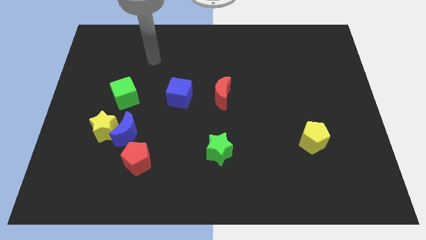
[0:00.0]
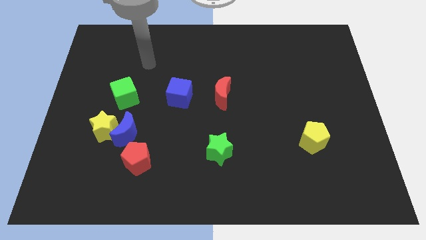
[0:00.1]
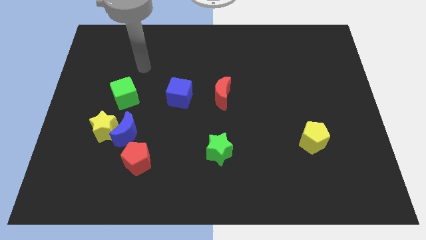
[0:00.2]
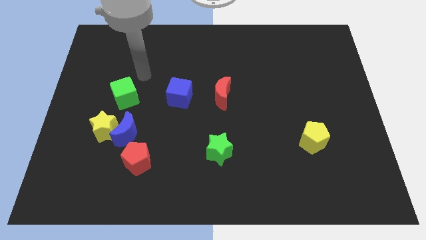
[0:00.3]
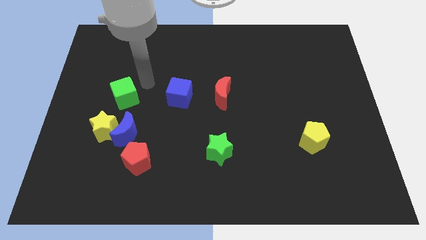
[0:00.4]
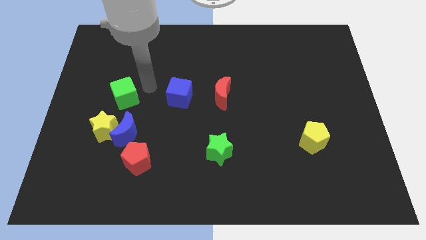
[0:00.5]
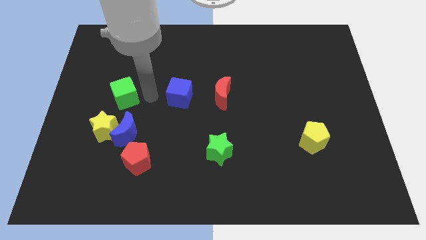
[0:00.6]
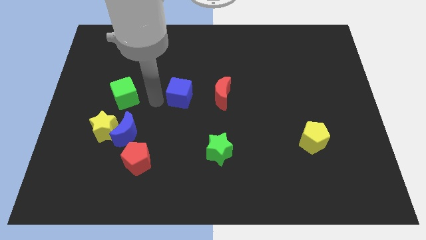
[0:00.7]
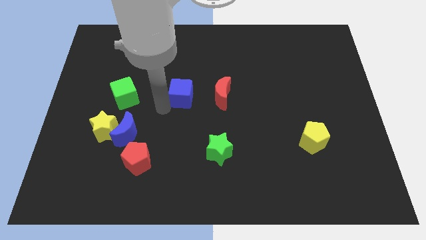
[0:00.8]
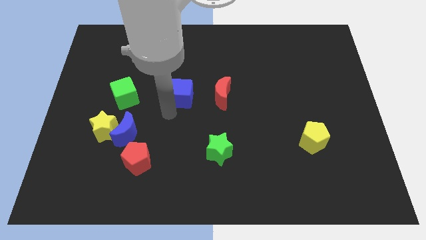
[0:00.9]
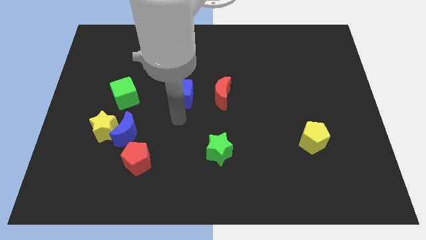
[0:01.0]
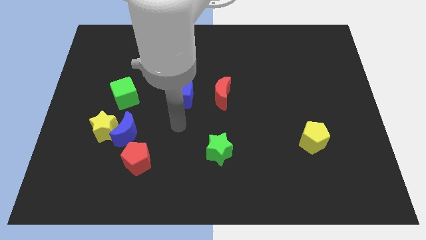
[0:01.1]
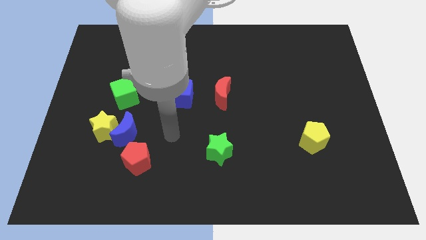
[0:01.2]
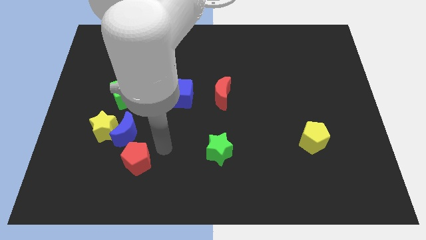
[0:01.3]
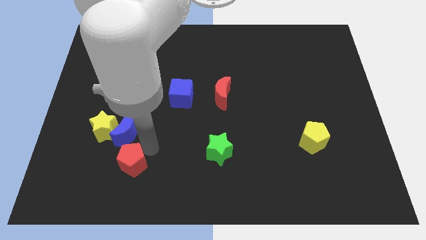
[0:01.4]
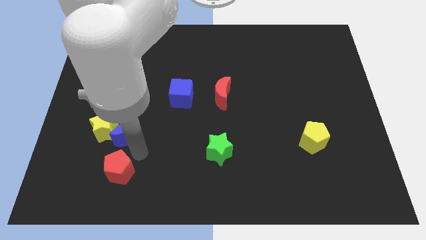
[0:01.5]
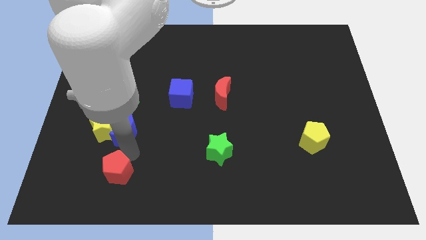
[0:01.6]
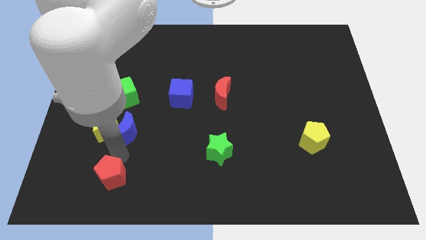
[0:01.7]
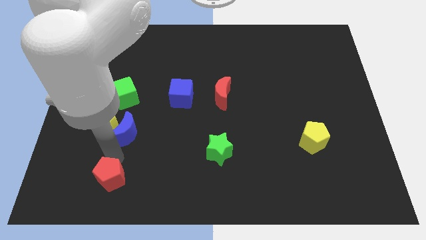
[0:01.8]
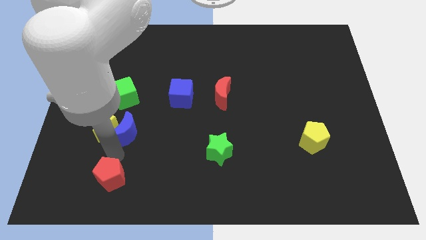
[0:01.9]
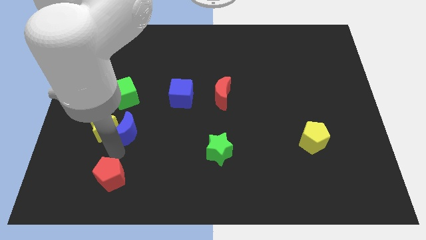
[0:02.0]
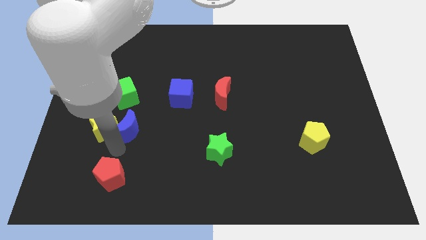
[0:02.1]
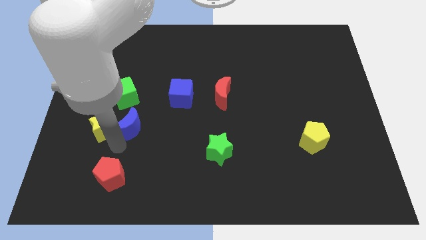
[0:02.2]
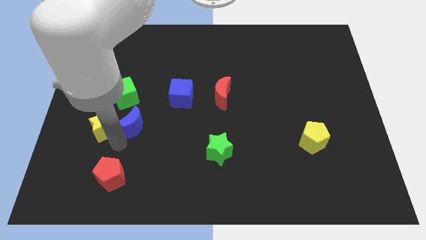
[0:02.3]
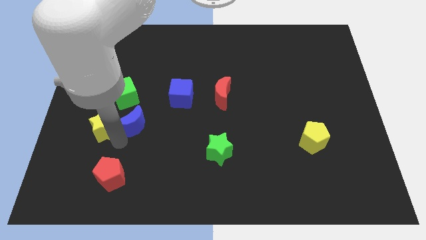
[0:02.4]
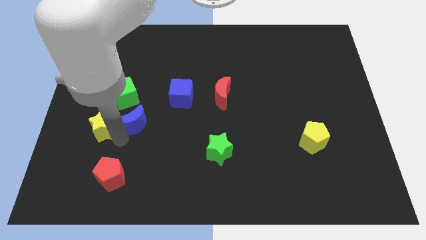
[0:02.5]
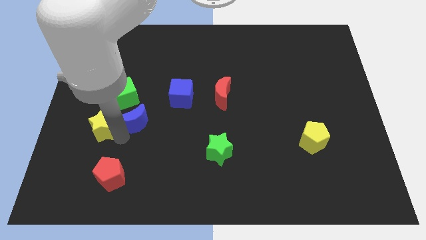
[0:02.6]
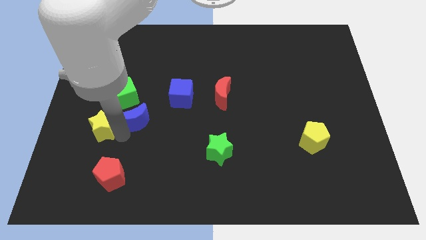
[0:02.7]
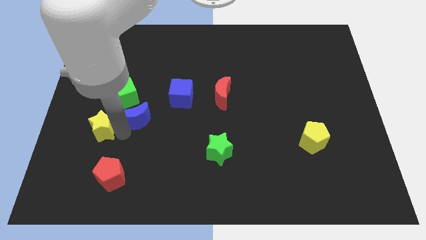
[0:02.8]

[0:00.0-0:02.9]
separate the blue moon from the yellow star and red pentagon

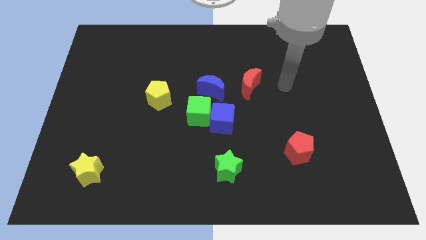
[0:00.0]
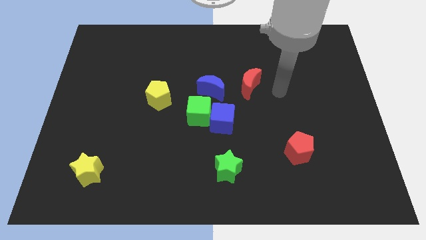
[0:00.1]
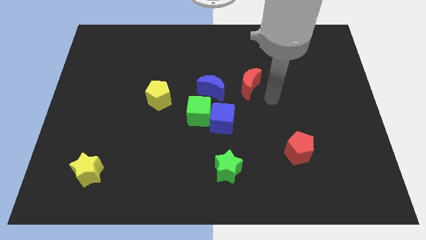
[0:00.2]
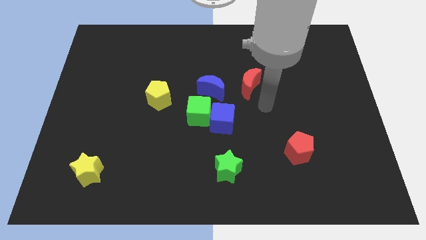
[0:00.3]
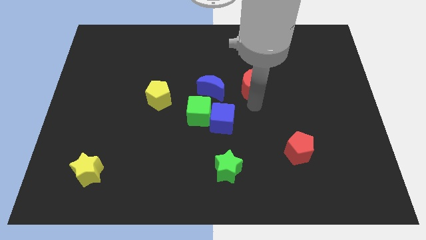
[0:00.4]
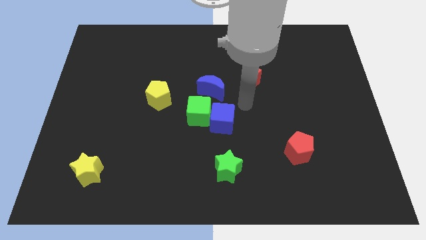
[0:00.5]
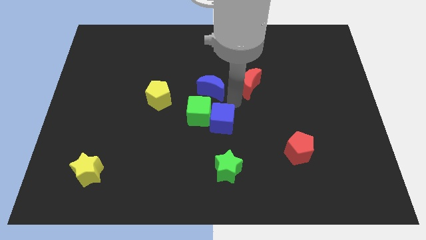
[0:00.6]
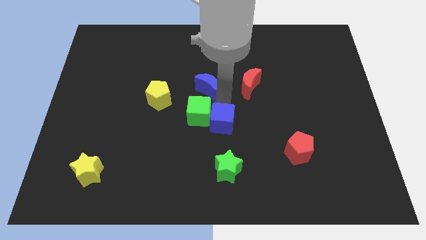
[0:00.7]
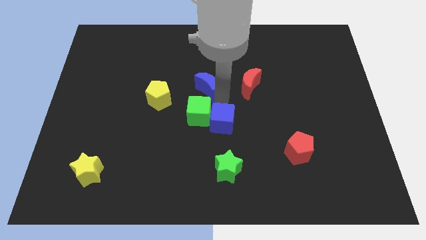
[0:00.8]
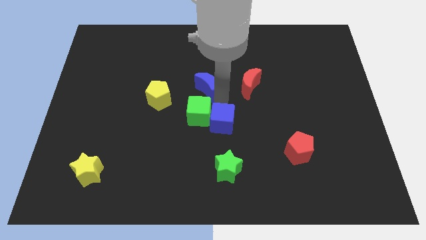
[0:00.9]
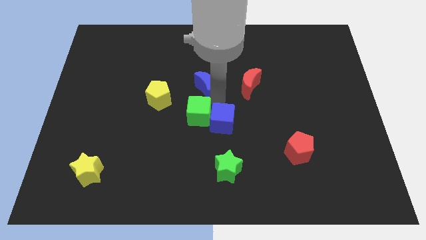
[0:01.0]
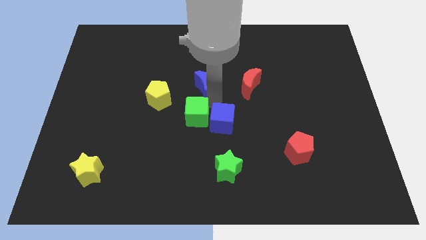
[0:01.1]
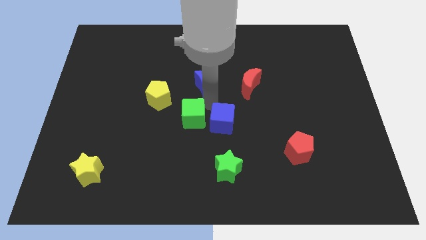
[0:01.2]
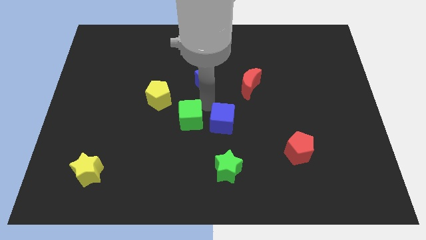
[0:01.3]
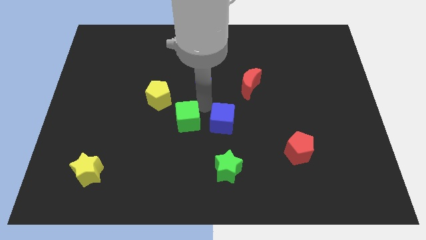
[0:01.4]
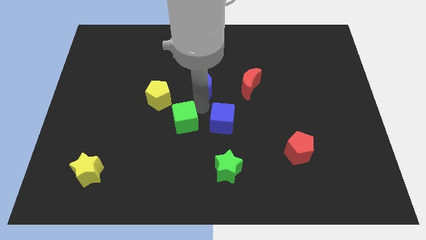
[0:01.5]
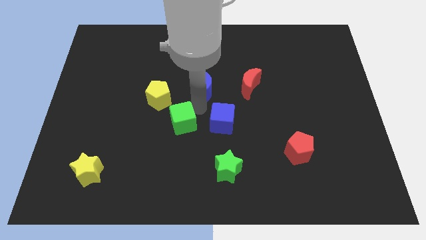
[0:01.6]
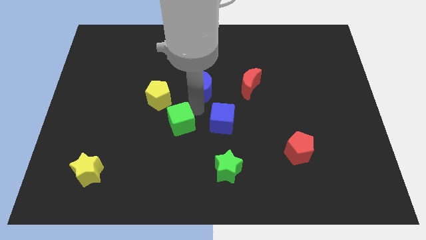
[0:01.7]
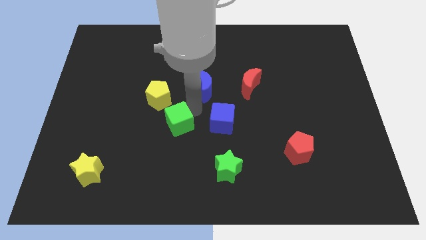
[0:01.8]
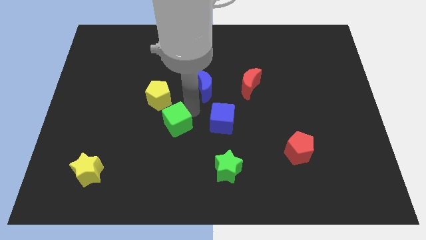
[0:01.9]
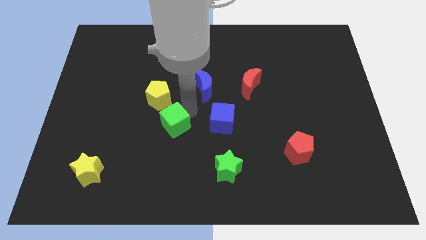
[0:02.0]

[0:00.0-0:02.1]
pull the green cube apart from the blue cube and blue moon

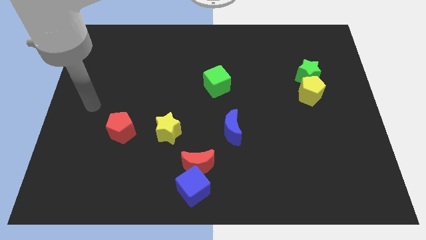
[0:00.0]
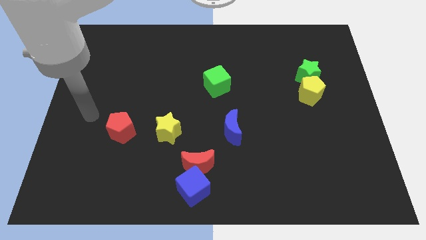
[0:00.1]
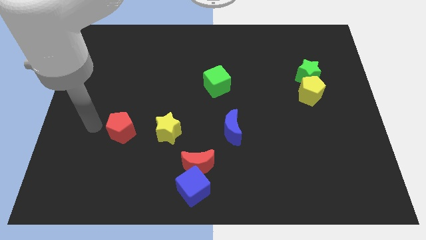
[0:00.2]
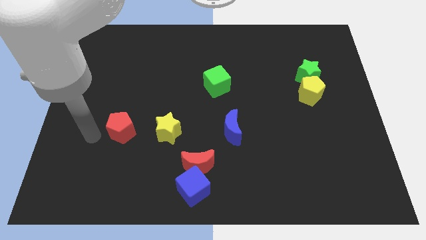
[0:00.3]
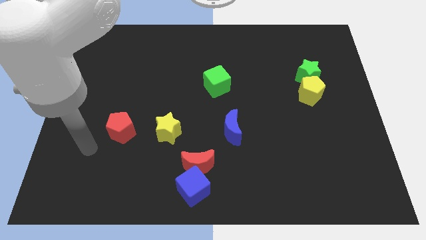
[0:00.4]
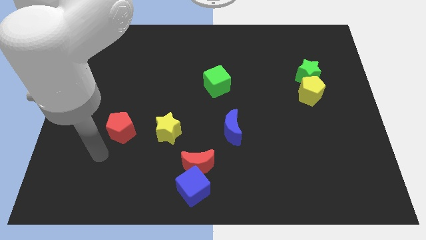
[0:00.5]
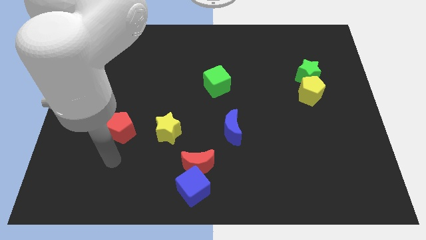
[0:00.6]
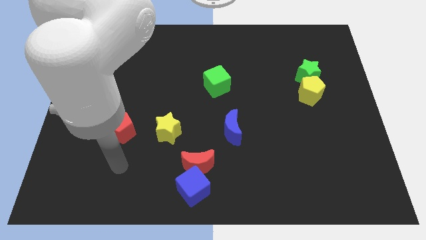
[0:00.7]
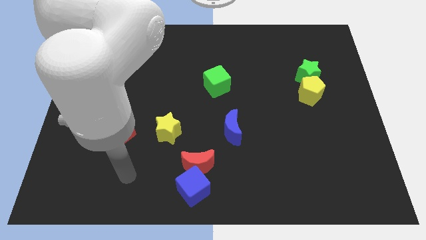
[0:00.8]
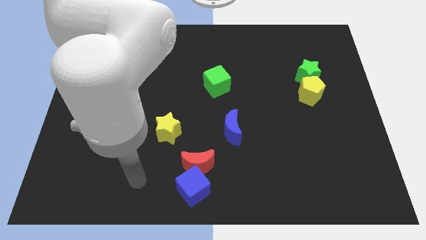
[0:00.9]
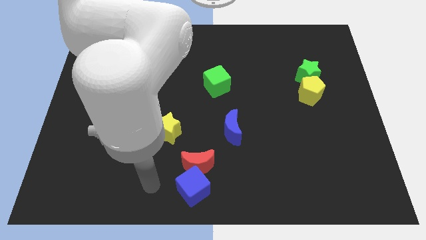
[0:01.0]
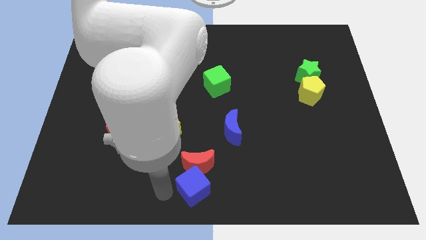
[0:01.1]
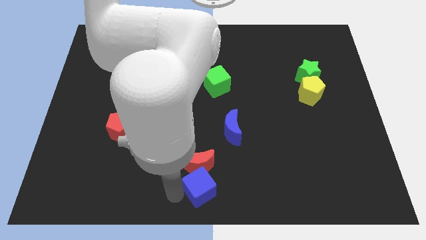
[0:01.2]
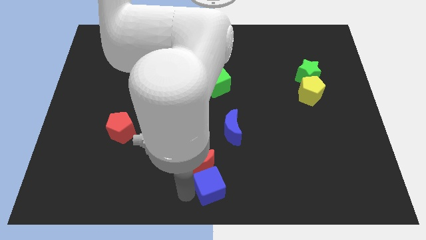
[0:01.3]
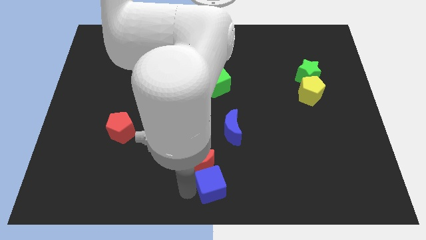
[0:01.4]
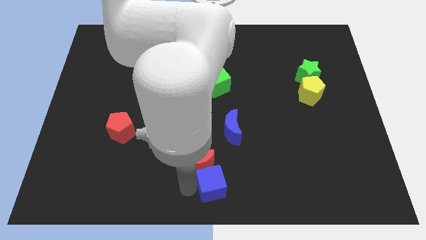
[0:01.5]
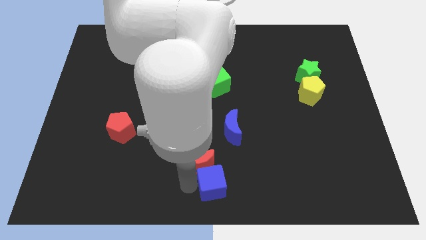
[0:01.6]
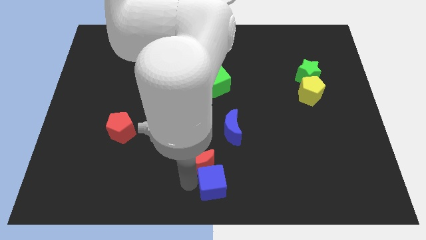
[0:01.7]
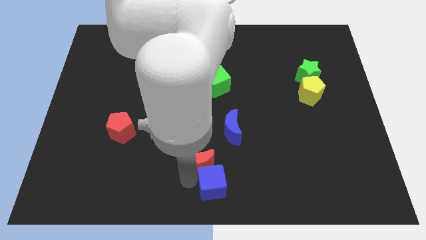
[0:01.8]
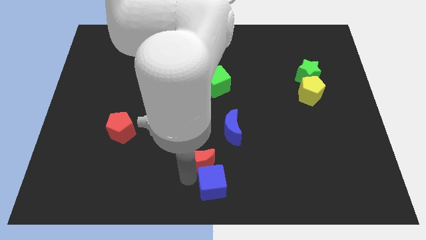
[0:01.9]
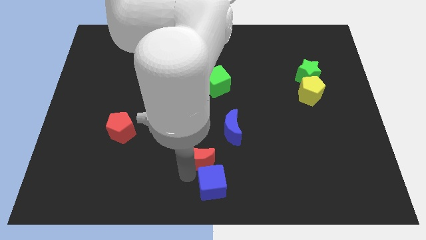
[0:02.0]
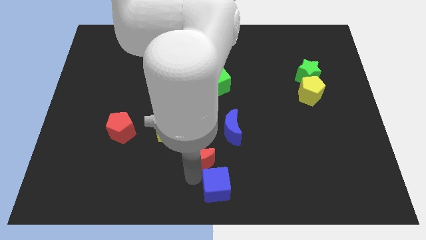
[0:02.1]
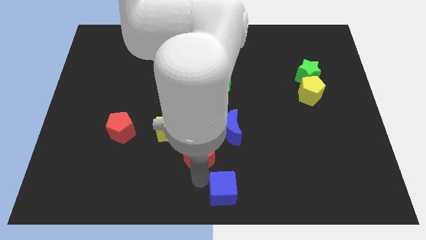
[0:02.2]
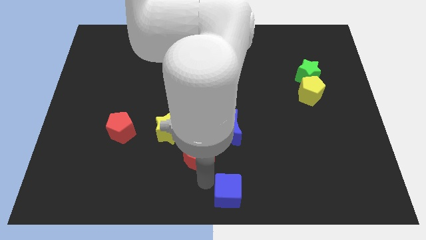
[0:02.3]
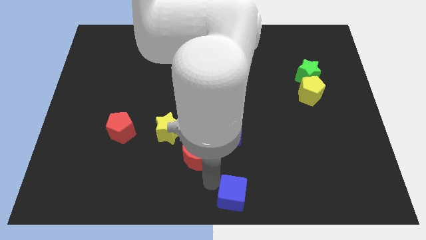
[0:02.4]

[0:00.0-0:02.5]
pull the red moon apart from the blue cube

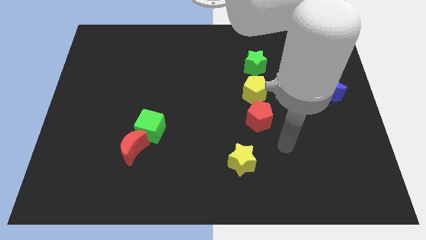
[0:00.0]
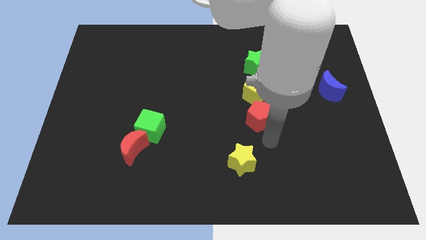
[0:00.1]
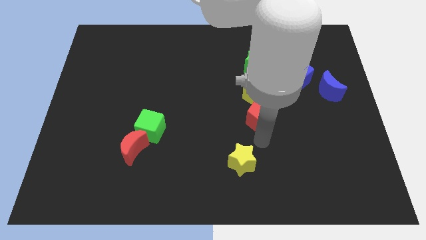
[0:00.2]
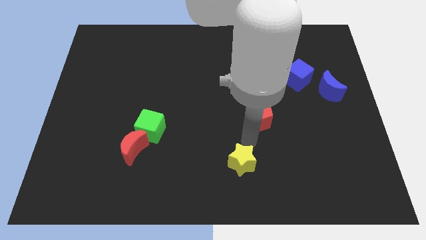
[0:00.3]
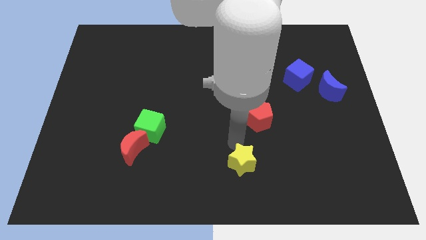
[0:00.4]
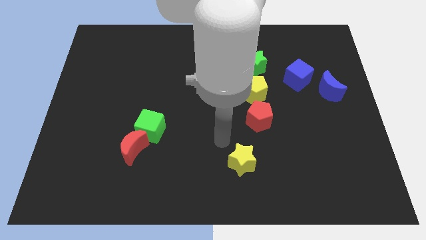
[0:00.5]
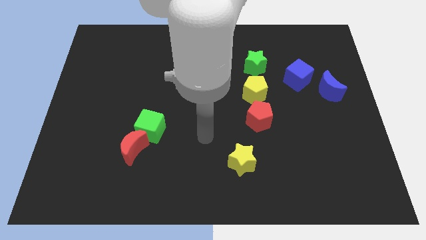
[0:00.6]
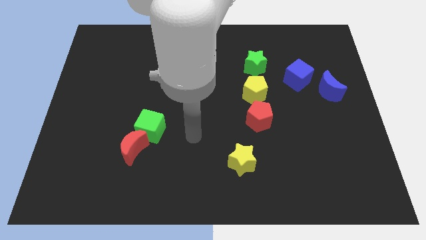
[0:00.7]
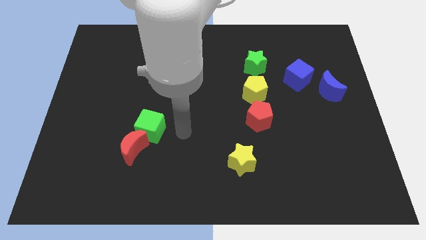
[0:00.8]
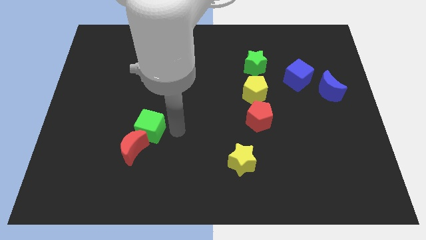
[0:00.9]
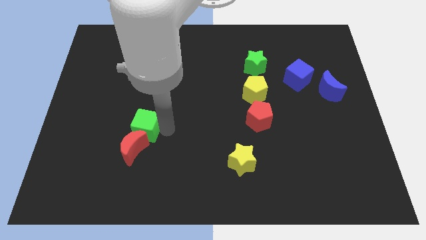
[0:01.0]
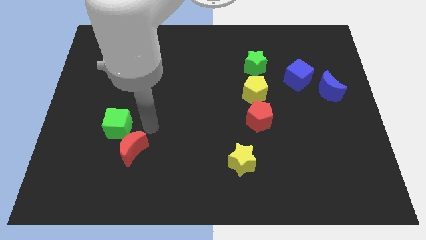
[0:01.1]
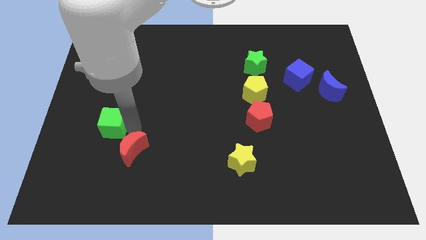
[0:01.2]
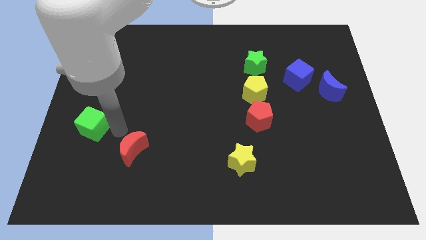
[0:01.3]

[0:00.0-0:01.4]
pull the red moon apart from the green cube

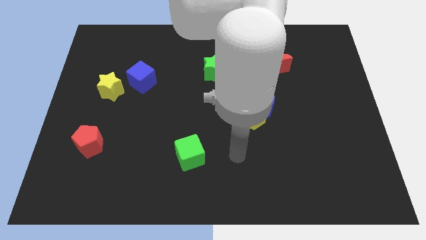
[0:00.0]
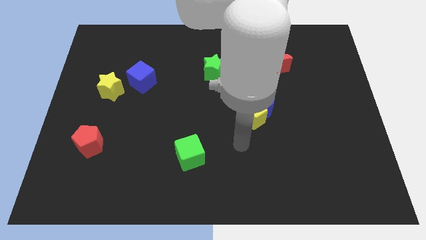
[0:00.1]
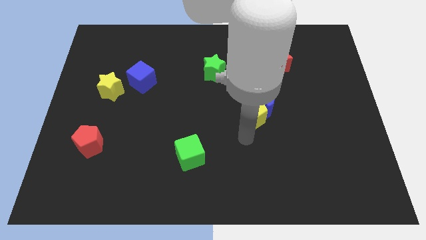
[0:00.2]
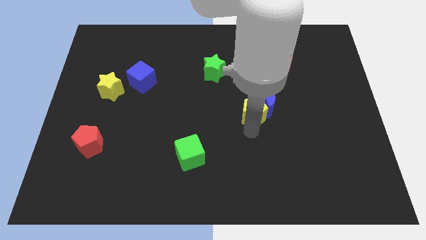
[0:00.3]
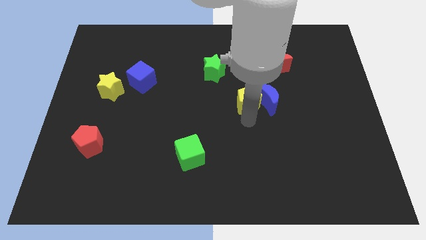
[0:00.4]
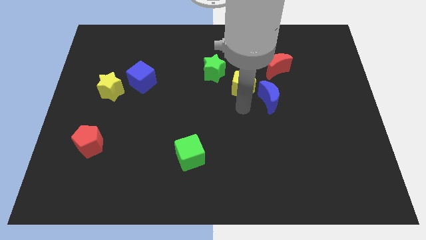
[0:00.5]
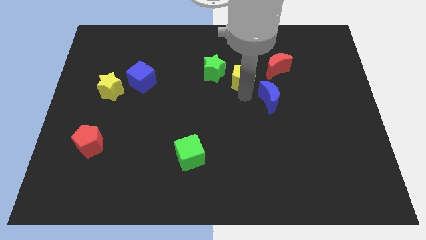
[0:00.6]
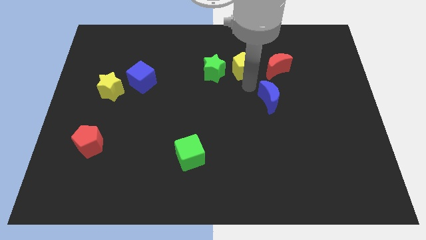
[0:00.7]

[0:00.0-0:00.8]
separate the blue moon from the yellow pentagon
